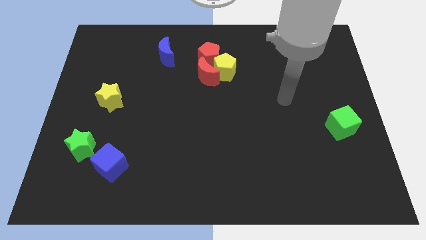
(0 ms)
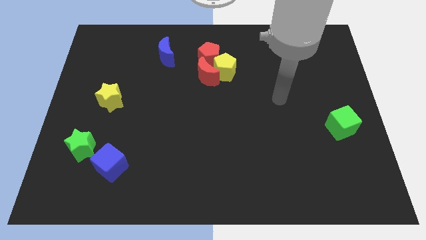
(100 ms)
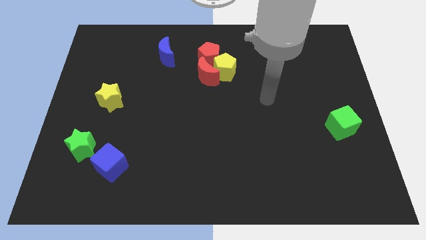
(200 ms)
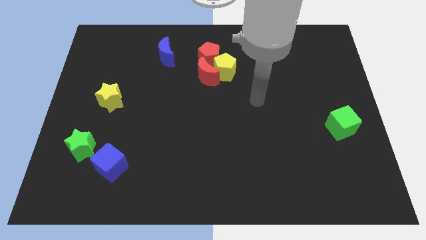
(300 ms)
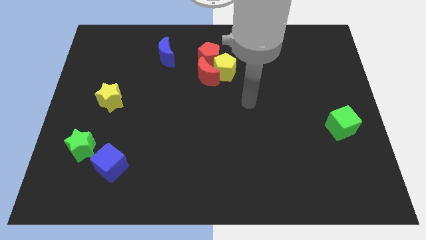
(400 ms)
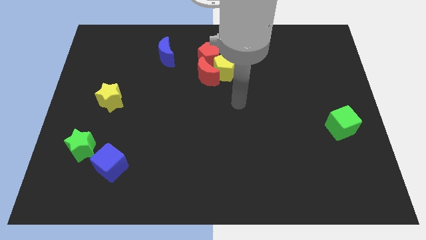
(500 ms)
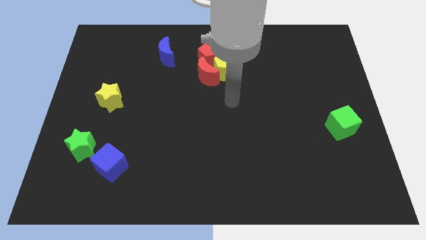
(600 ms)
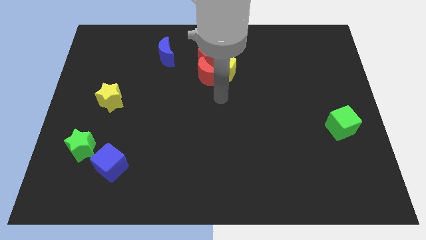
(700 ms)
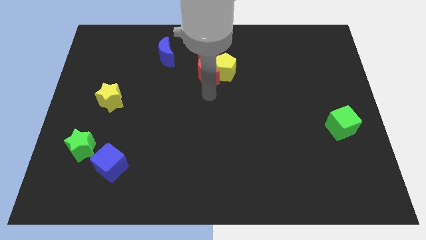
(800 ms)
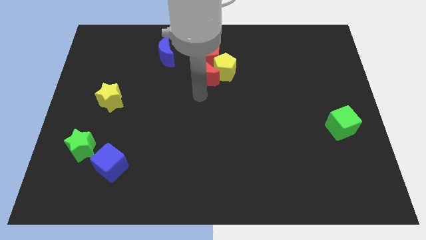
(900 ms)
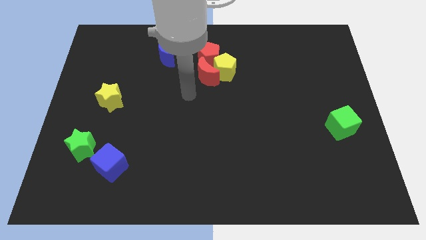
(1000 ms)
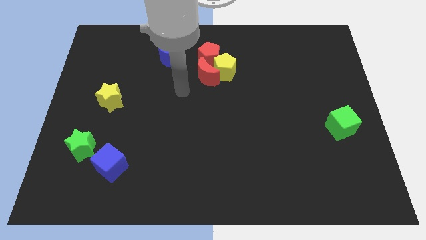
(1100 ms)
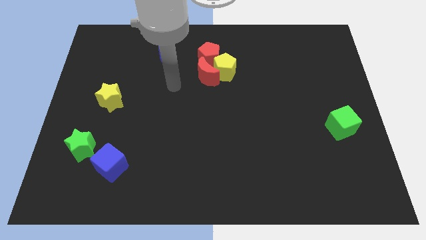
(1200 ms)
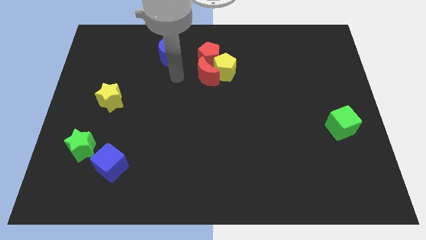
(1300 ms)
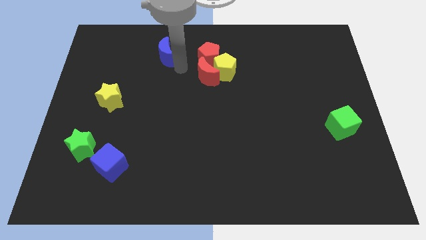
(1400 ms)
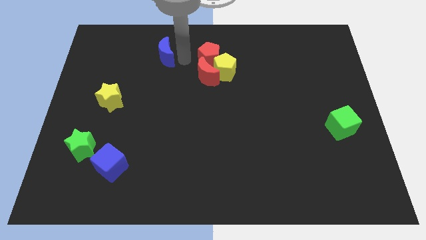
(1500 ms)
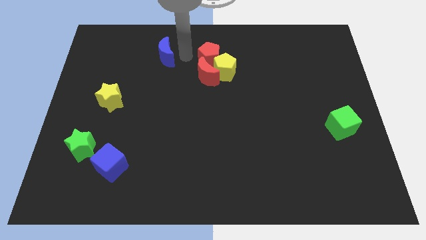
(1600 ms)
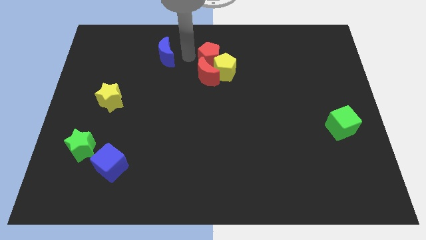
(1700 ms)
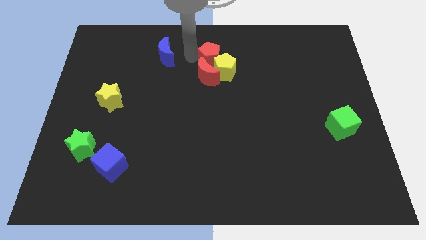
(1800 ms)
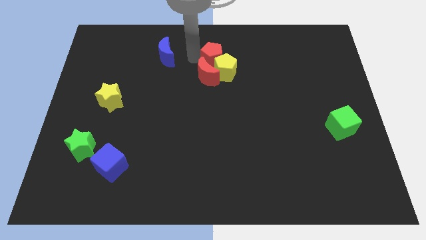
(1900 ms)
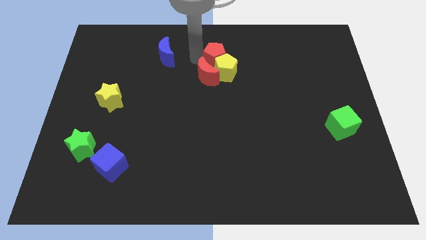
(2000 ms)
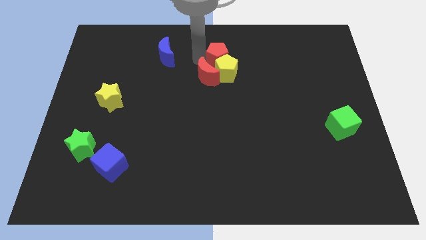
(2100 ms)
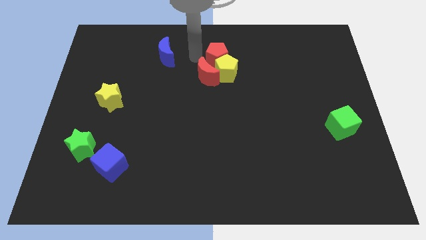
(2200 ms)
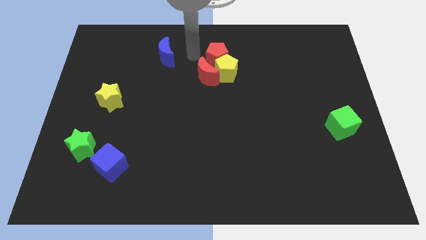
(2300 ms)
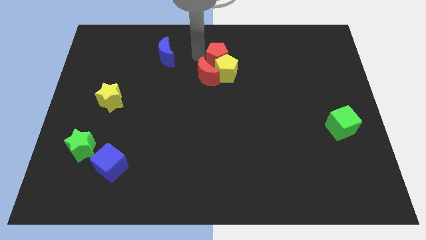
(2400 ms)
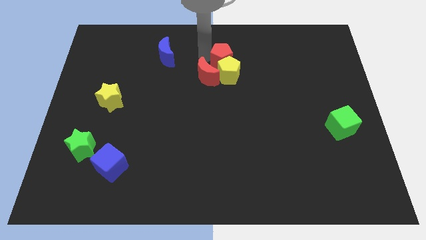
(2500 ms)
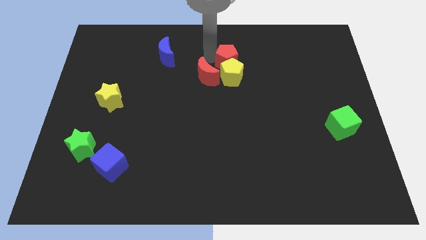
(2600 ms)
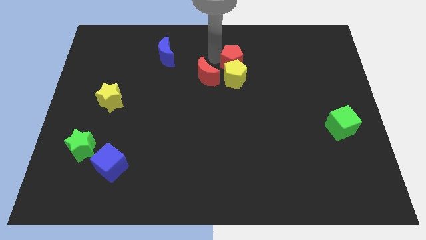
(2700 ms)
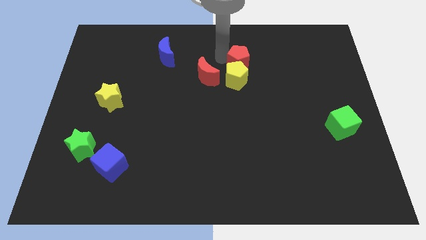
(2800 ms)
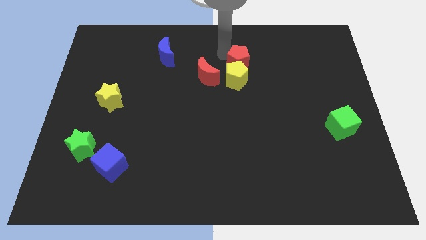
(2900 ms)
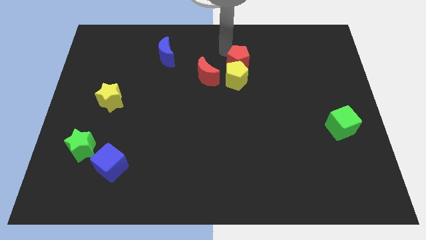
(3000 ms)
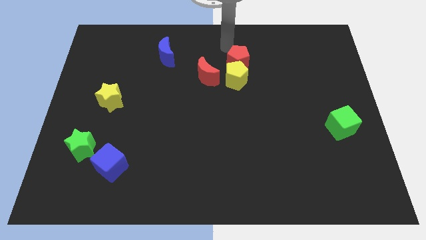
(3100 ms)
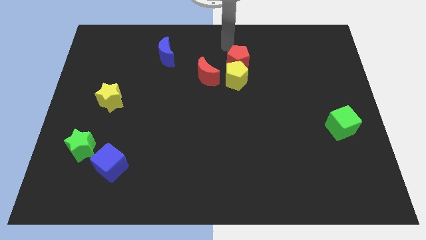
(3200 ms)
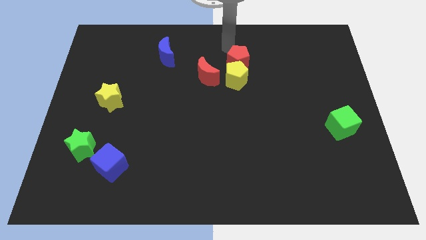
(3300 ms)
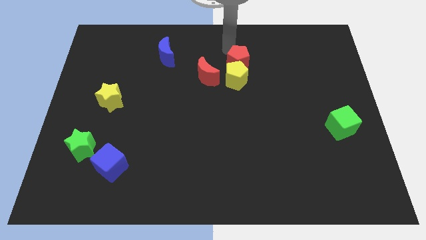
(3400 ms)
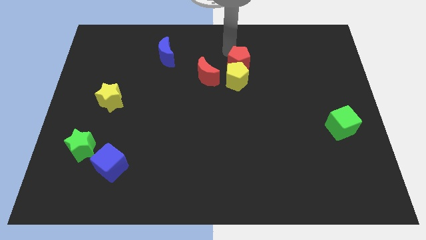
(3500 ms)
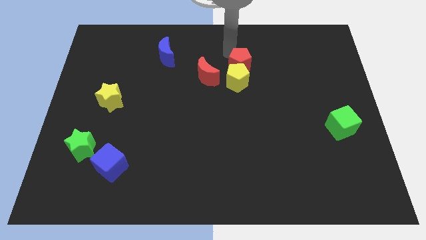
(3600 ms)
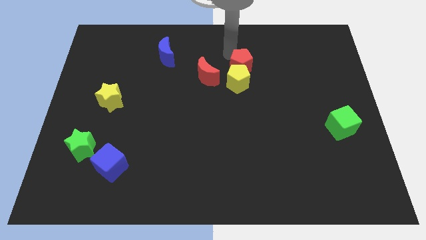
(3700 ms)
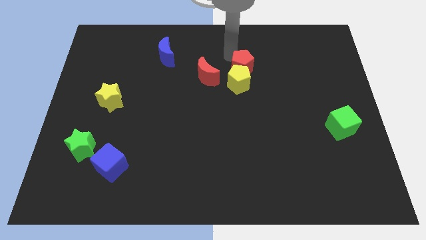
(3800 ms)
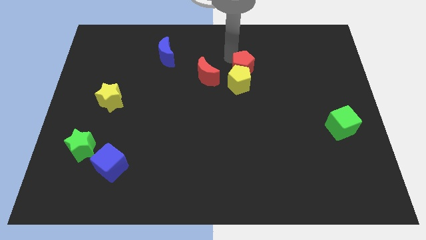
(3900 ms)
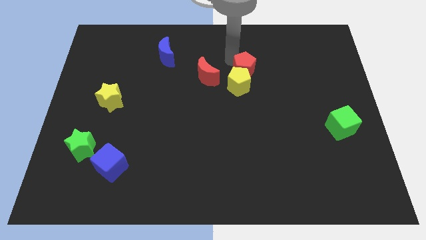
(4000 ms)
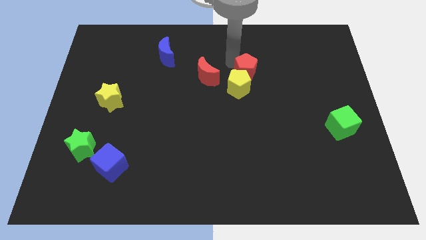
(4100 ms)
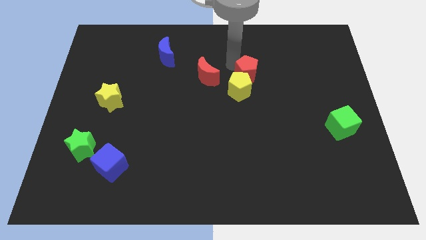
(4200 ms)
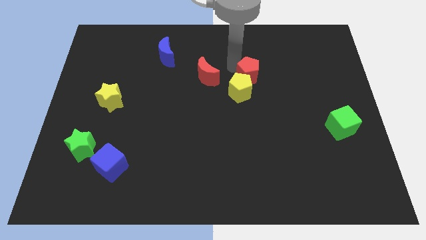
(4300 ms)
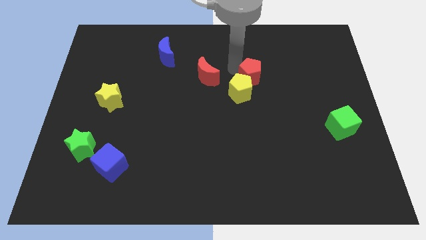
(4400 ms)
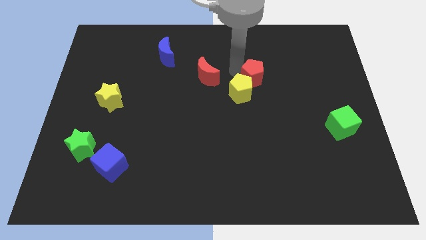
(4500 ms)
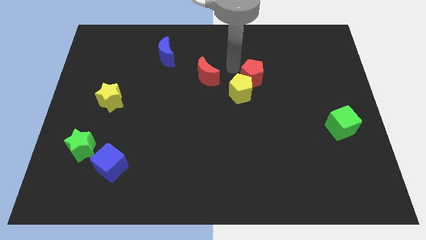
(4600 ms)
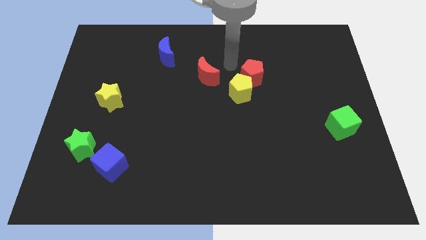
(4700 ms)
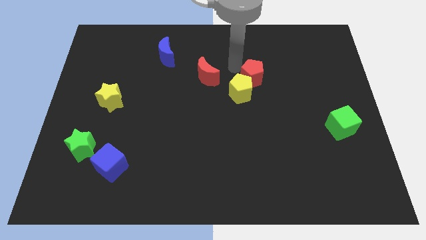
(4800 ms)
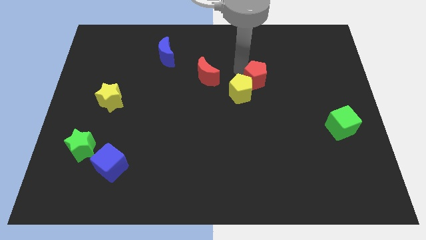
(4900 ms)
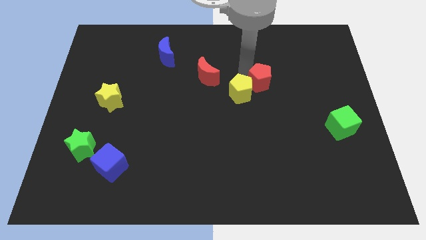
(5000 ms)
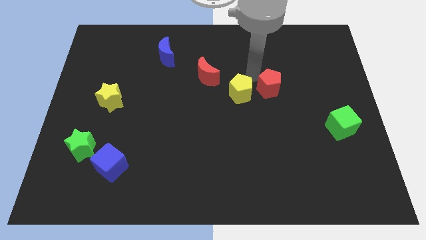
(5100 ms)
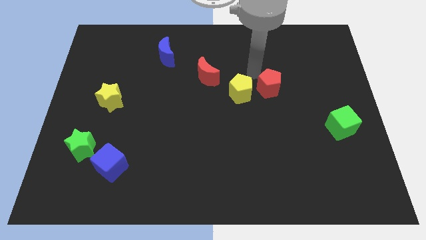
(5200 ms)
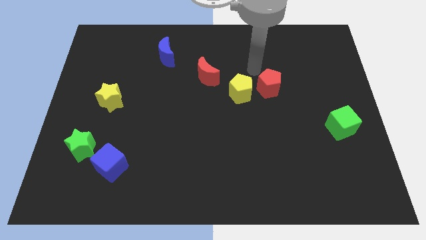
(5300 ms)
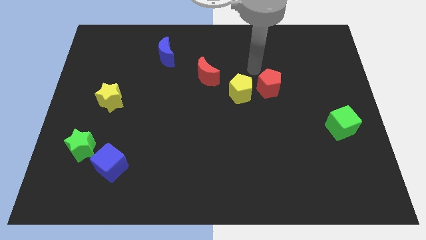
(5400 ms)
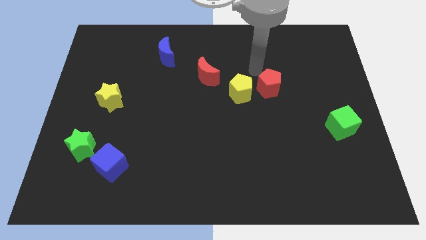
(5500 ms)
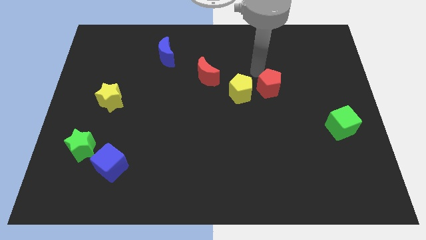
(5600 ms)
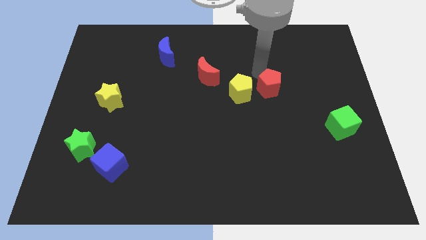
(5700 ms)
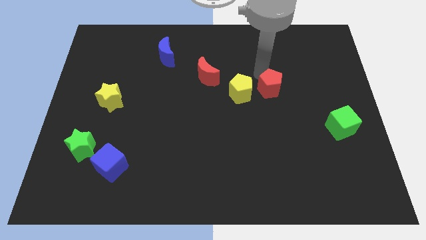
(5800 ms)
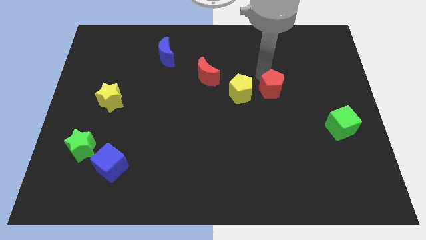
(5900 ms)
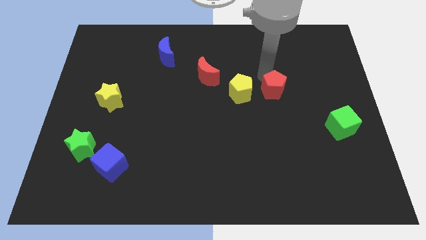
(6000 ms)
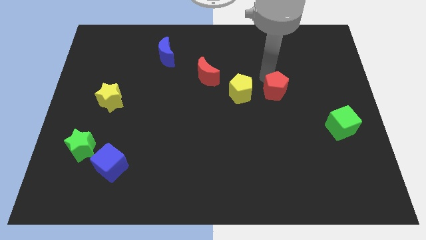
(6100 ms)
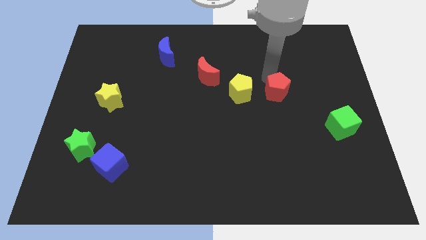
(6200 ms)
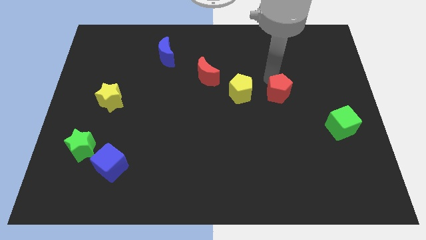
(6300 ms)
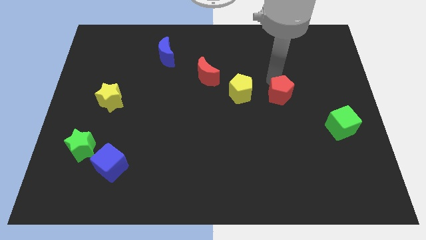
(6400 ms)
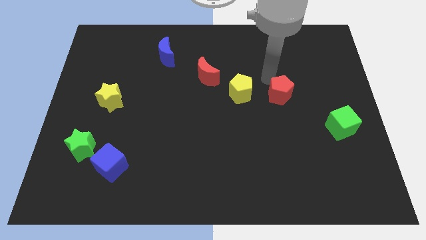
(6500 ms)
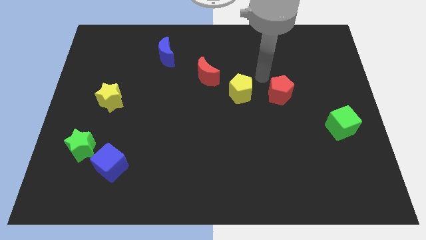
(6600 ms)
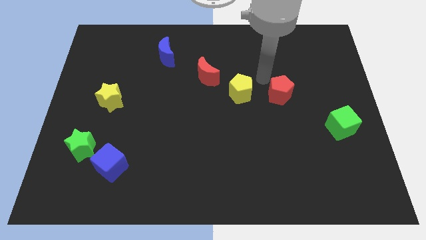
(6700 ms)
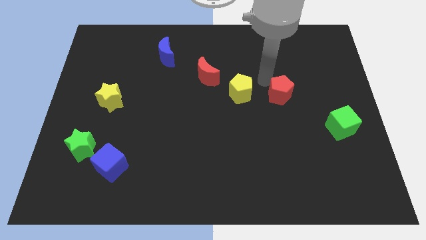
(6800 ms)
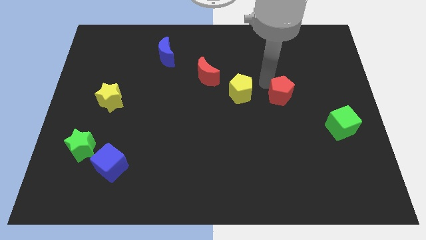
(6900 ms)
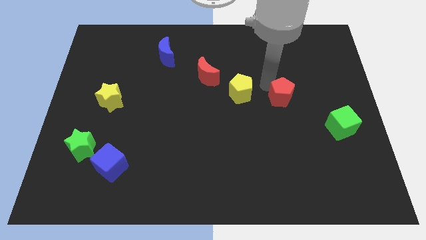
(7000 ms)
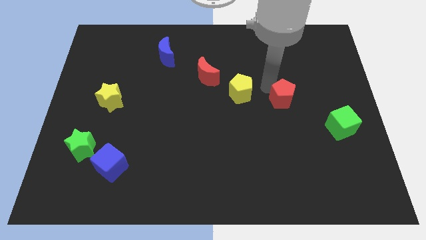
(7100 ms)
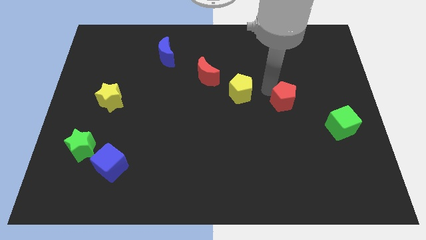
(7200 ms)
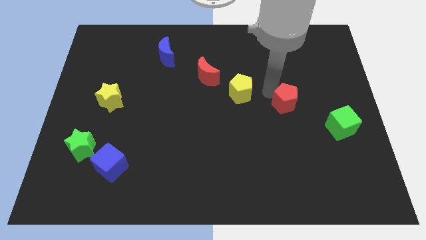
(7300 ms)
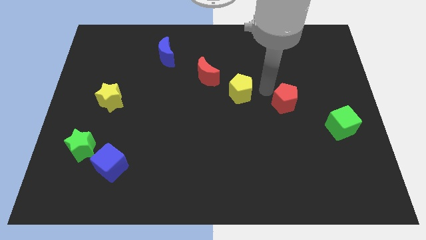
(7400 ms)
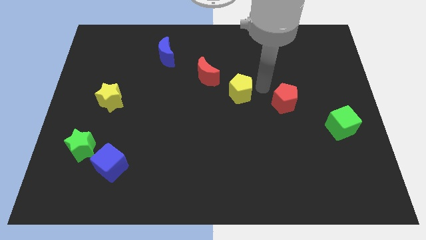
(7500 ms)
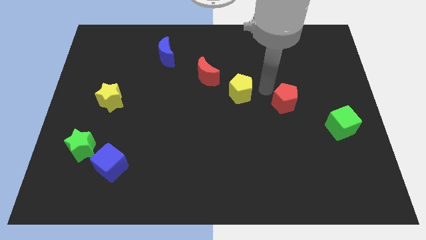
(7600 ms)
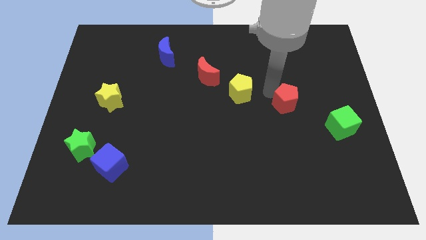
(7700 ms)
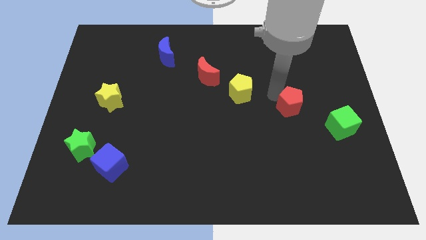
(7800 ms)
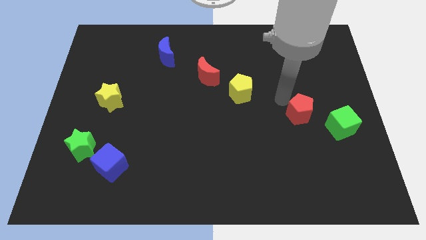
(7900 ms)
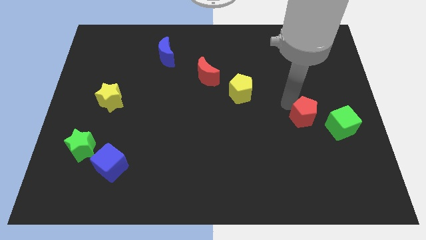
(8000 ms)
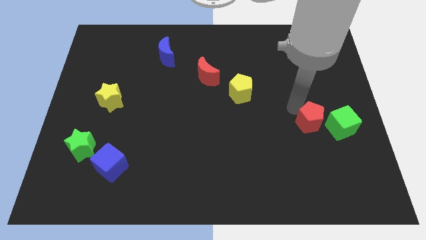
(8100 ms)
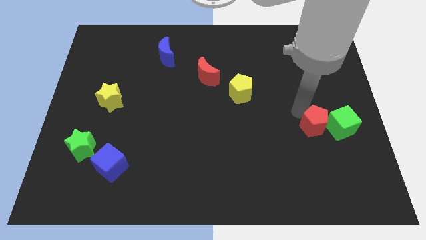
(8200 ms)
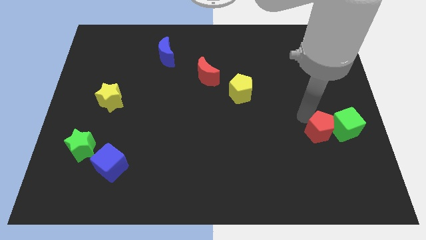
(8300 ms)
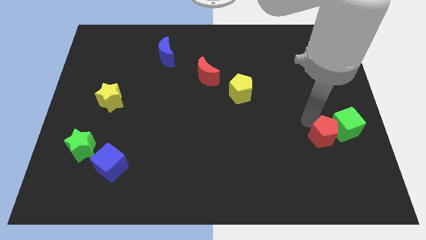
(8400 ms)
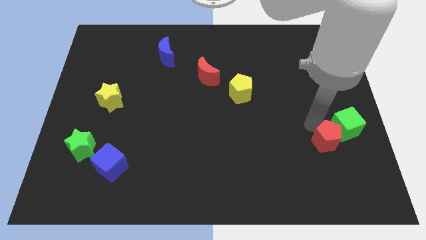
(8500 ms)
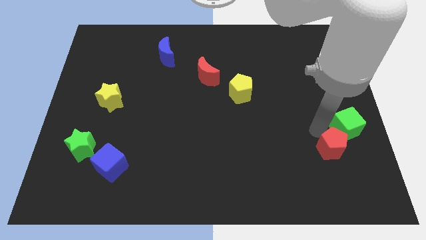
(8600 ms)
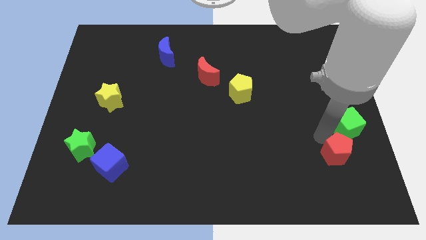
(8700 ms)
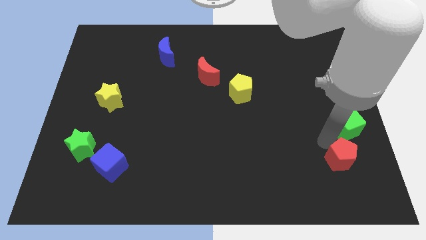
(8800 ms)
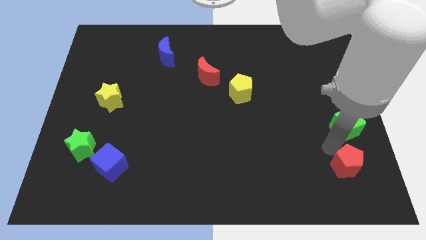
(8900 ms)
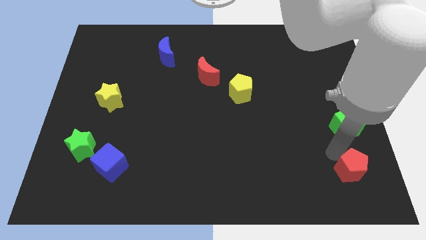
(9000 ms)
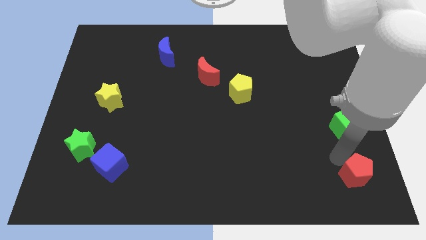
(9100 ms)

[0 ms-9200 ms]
slide the red pentagon to the bottom right
